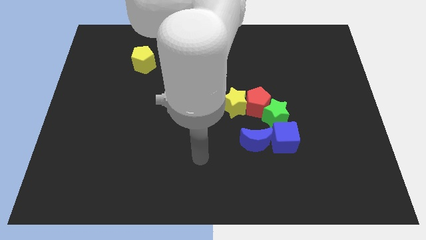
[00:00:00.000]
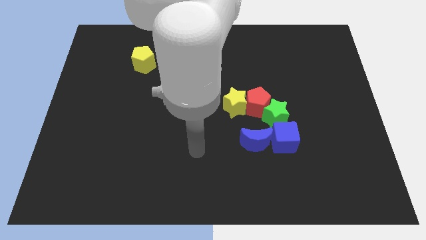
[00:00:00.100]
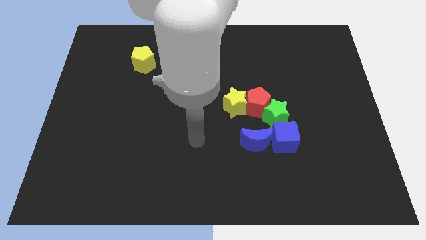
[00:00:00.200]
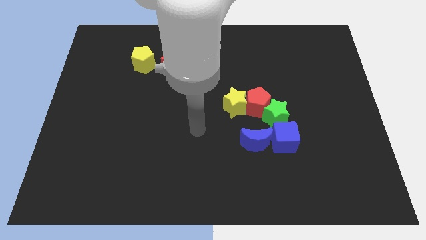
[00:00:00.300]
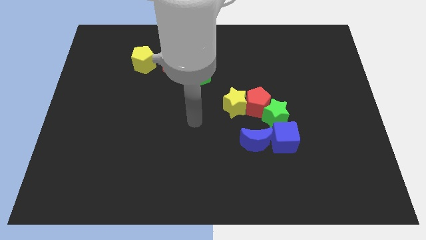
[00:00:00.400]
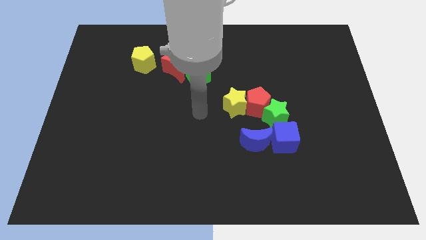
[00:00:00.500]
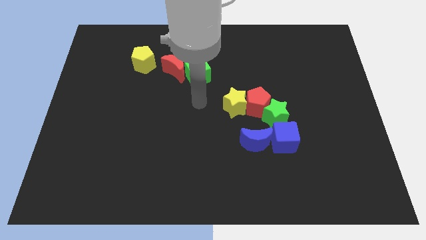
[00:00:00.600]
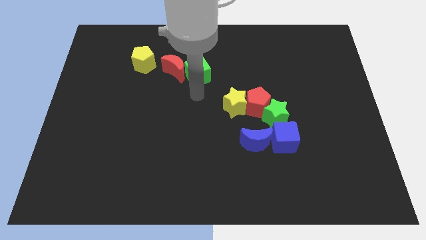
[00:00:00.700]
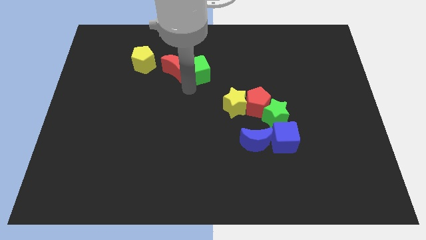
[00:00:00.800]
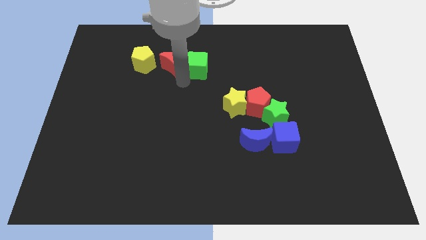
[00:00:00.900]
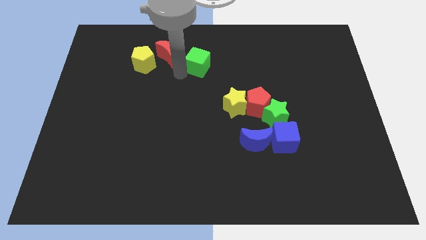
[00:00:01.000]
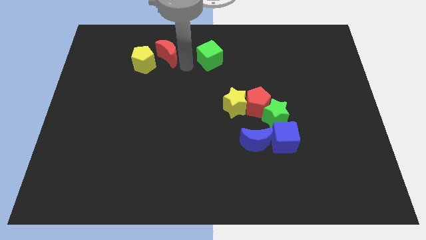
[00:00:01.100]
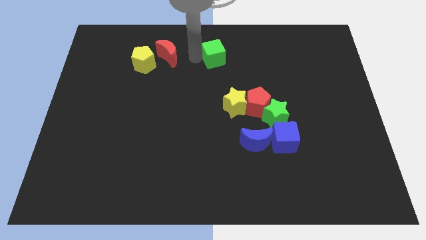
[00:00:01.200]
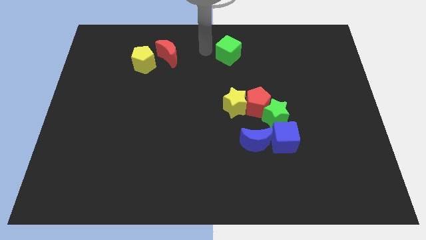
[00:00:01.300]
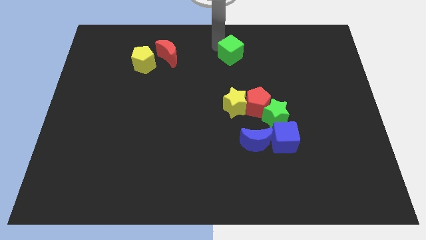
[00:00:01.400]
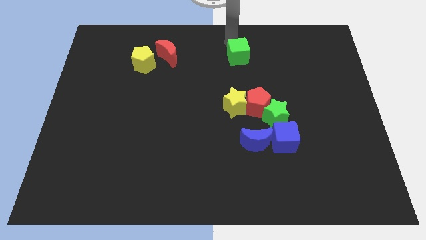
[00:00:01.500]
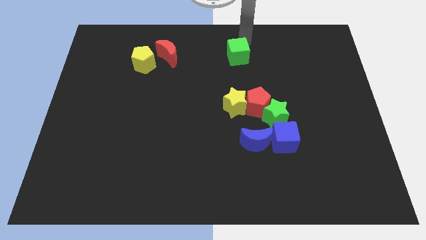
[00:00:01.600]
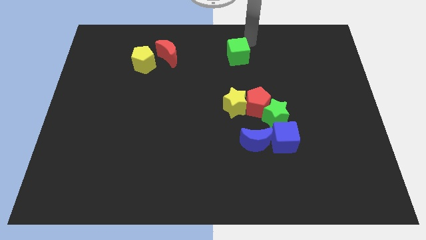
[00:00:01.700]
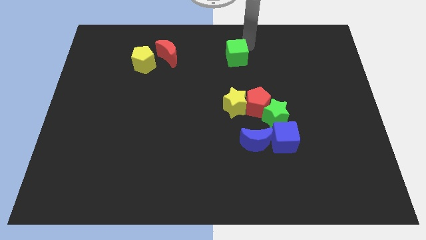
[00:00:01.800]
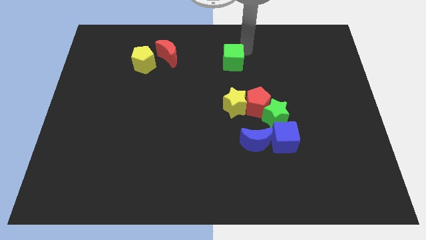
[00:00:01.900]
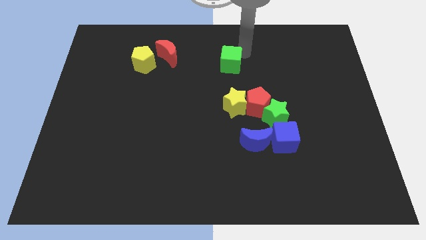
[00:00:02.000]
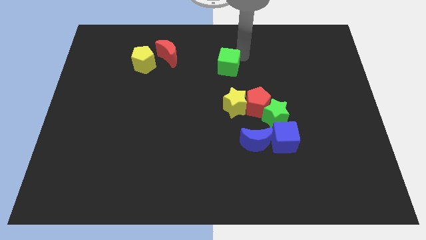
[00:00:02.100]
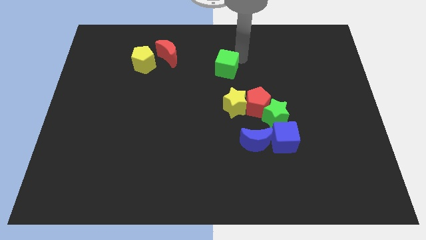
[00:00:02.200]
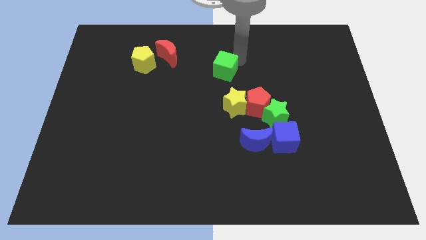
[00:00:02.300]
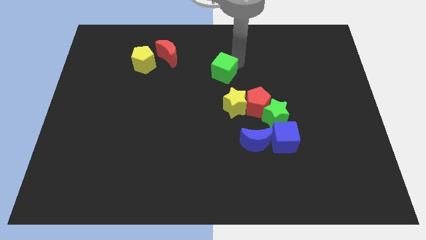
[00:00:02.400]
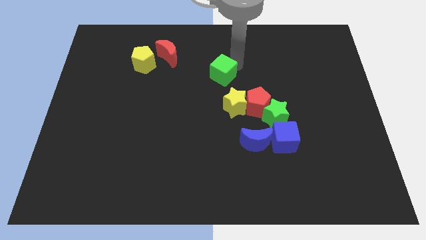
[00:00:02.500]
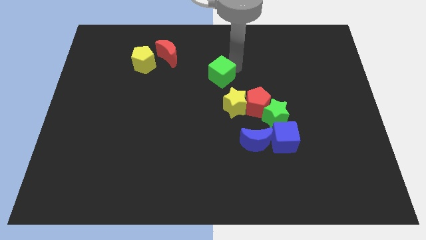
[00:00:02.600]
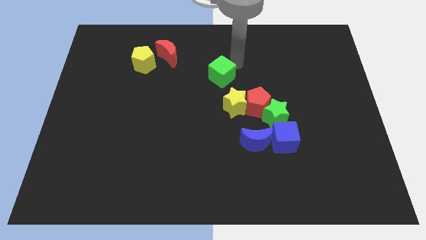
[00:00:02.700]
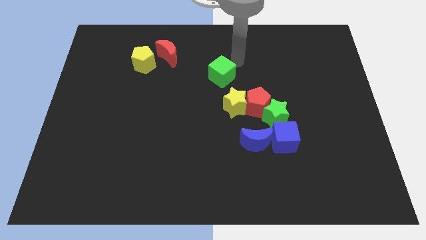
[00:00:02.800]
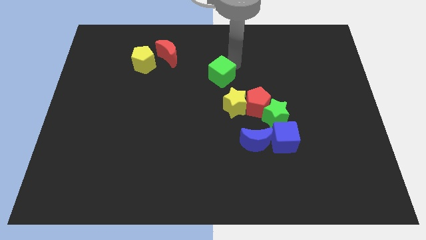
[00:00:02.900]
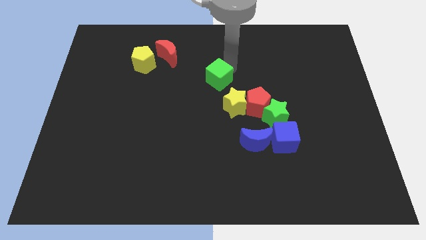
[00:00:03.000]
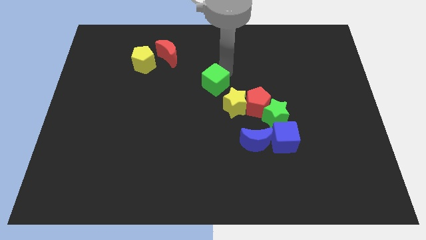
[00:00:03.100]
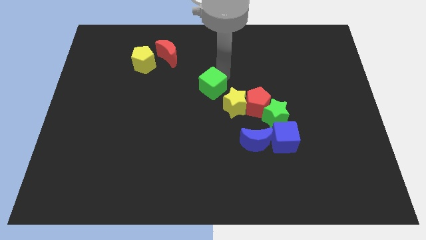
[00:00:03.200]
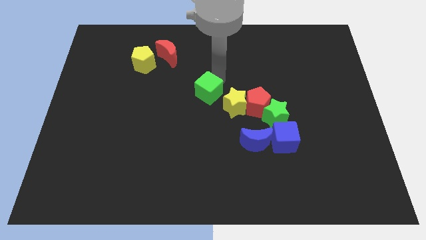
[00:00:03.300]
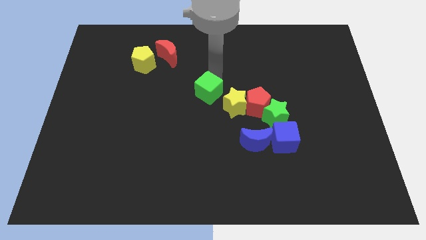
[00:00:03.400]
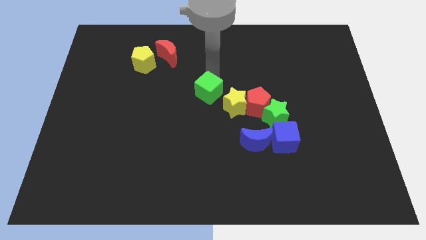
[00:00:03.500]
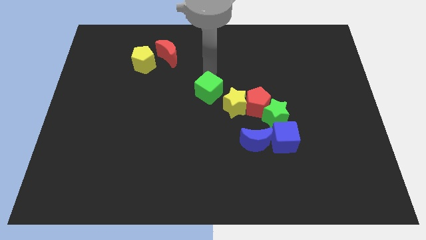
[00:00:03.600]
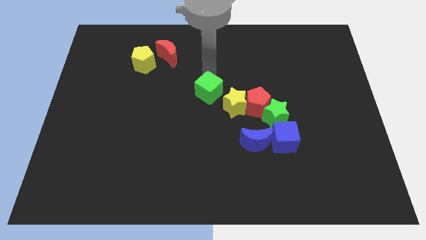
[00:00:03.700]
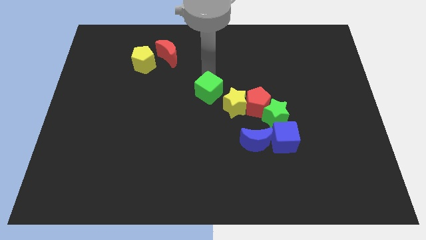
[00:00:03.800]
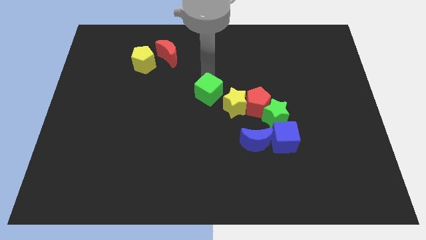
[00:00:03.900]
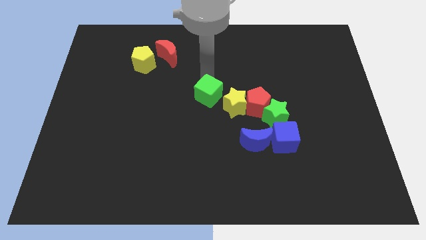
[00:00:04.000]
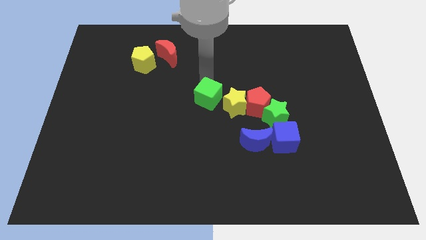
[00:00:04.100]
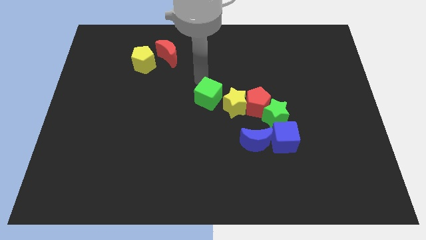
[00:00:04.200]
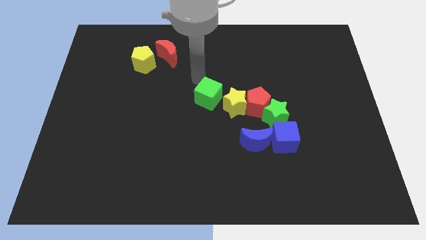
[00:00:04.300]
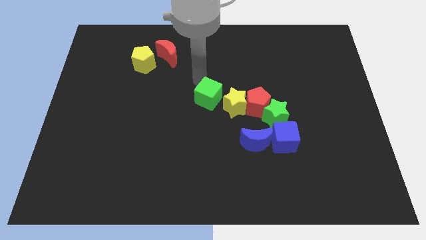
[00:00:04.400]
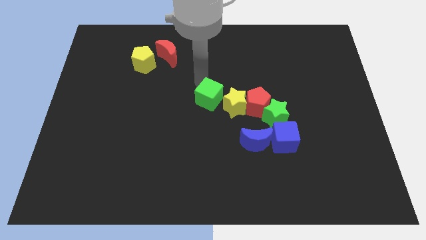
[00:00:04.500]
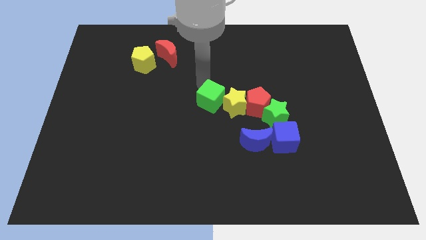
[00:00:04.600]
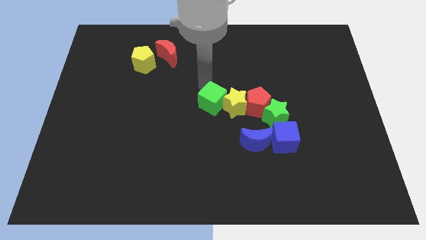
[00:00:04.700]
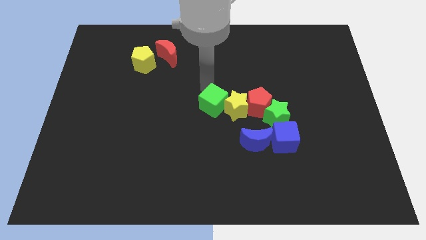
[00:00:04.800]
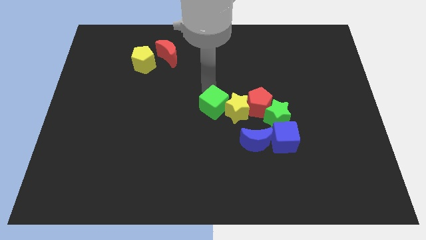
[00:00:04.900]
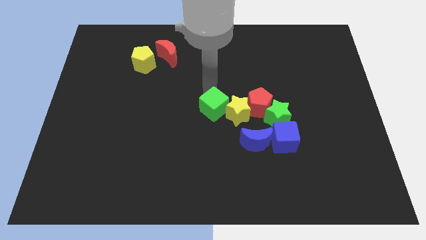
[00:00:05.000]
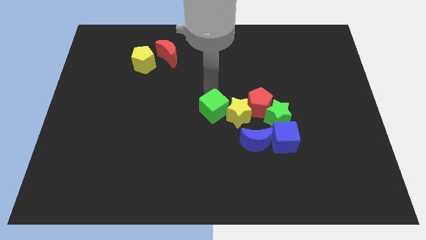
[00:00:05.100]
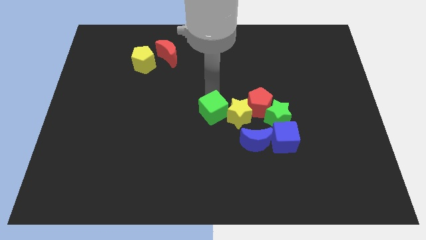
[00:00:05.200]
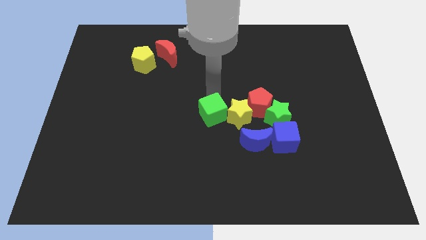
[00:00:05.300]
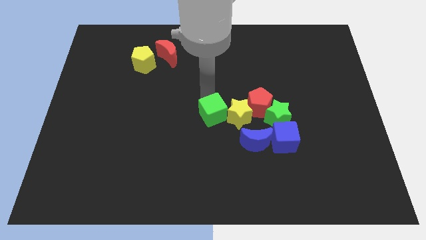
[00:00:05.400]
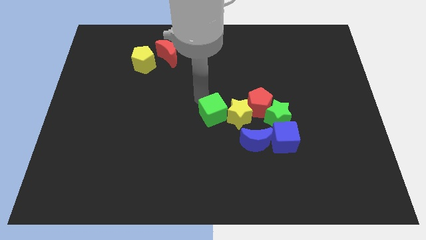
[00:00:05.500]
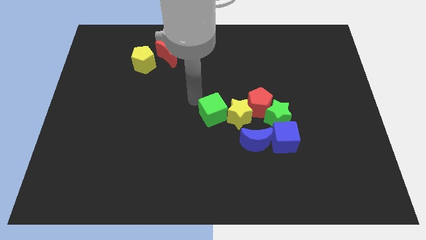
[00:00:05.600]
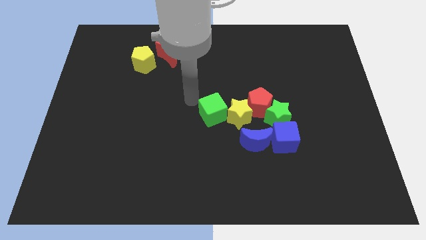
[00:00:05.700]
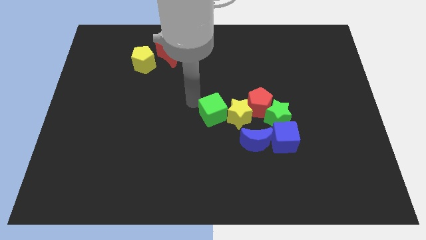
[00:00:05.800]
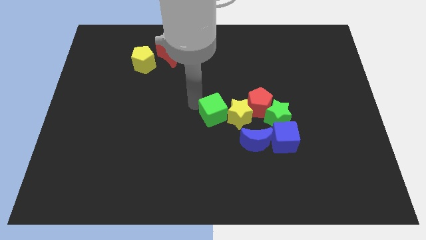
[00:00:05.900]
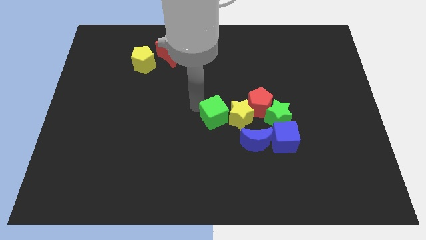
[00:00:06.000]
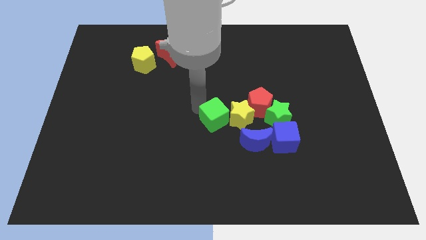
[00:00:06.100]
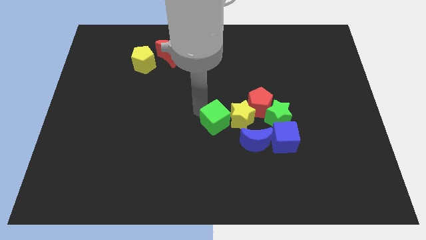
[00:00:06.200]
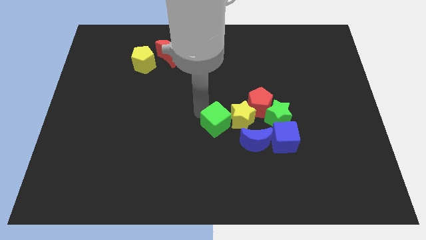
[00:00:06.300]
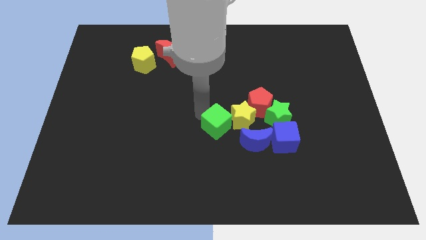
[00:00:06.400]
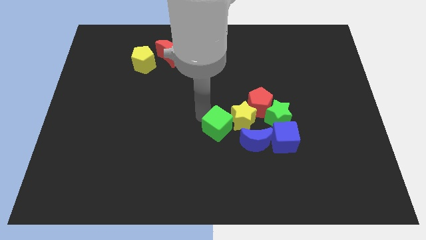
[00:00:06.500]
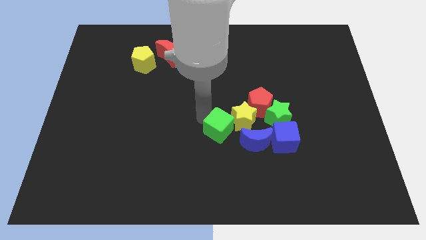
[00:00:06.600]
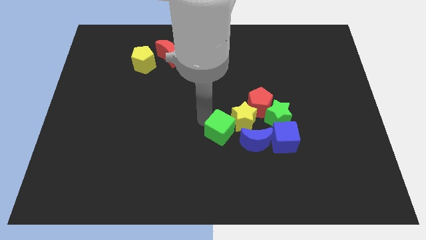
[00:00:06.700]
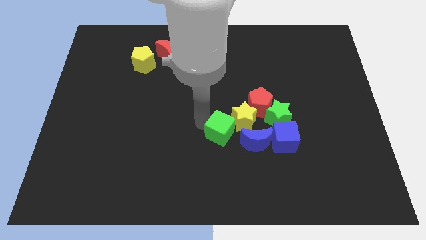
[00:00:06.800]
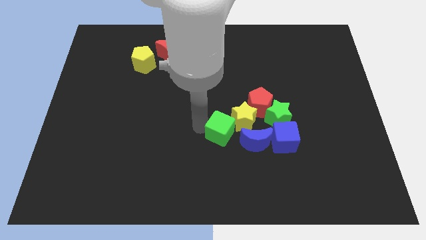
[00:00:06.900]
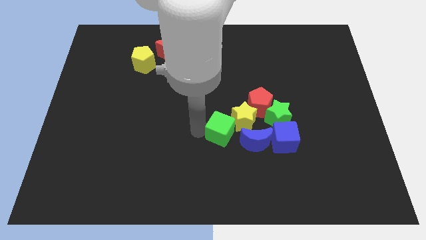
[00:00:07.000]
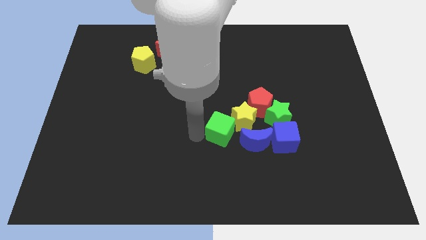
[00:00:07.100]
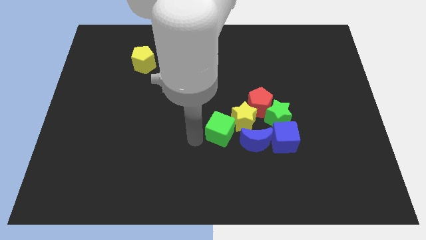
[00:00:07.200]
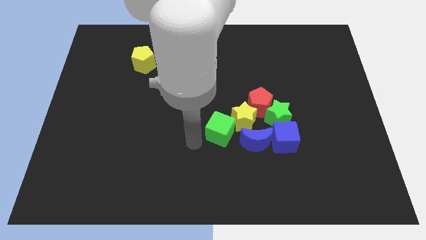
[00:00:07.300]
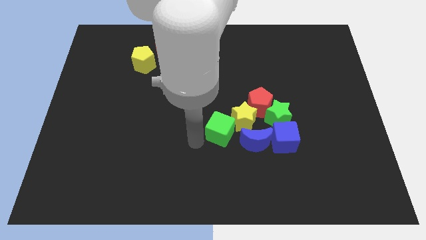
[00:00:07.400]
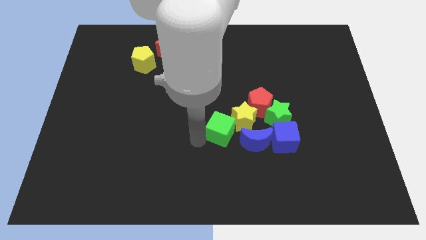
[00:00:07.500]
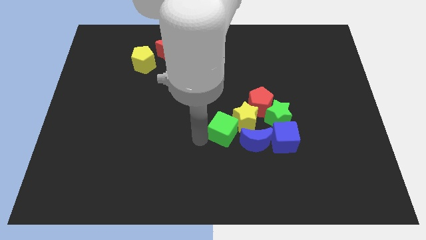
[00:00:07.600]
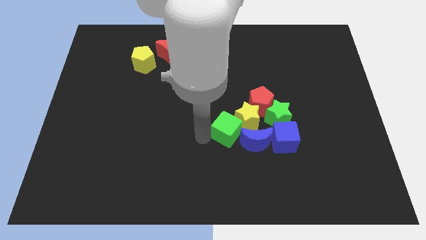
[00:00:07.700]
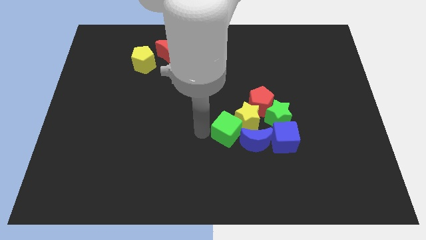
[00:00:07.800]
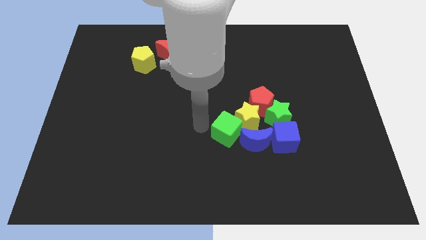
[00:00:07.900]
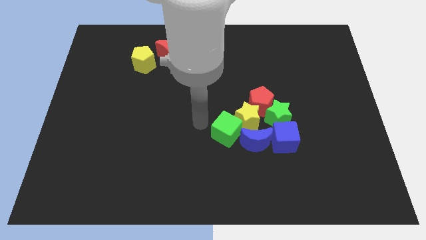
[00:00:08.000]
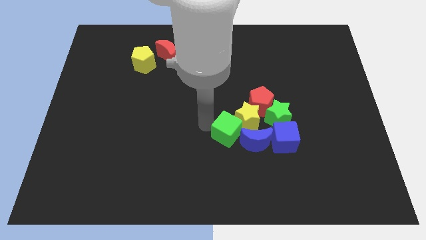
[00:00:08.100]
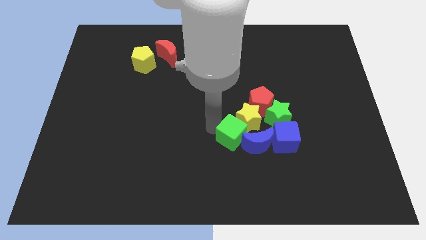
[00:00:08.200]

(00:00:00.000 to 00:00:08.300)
put the green cube towards the blue moon
